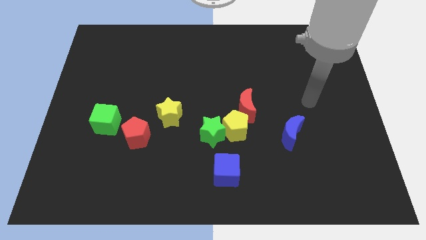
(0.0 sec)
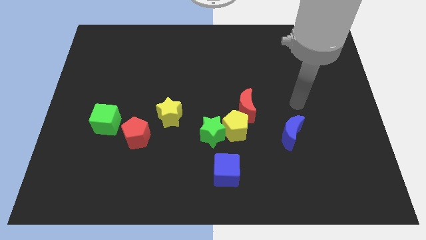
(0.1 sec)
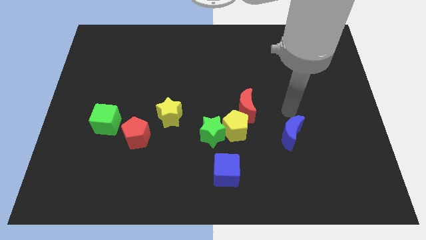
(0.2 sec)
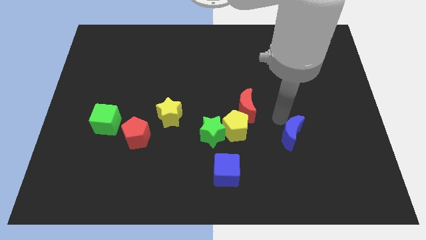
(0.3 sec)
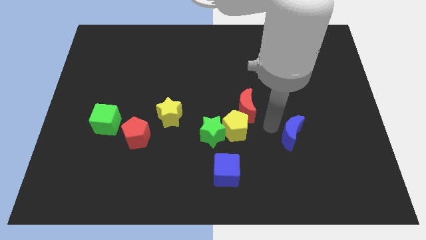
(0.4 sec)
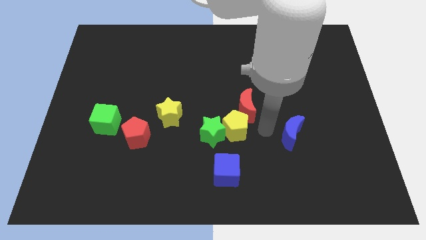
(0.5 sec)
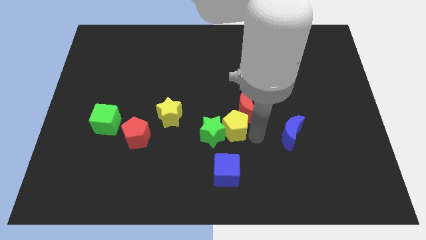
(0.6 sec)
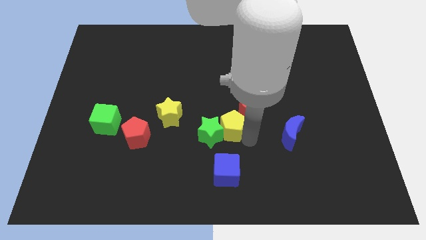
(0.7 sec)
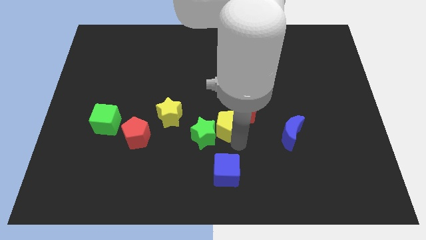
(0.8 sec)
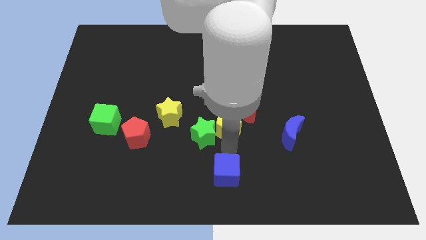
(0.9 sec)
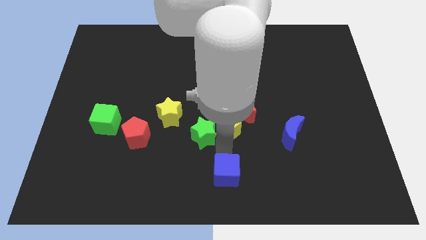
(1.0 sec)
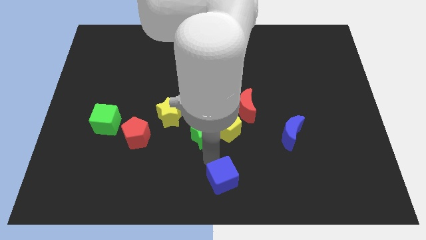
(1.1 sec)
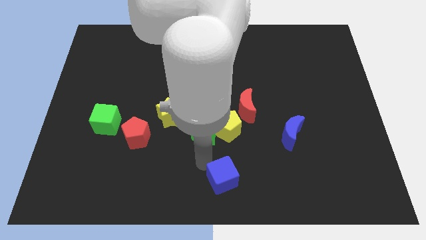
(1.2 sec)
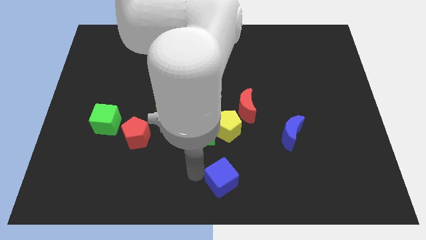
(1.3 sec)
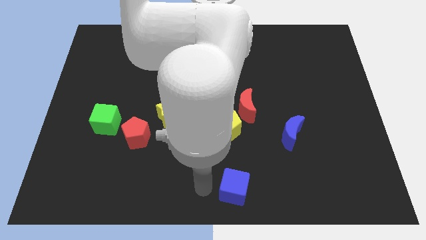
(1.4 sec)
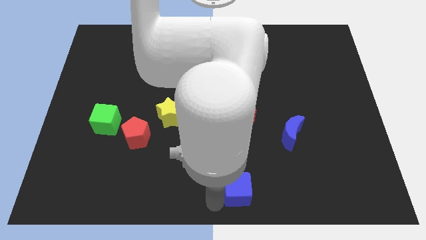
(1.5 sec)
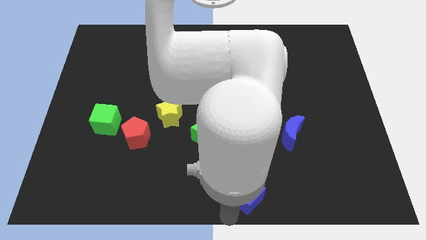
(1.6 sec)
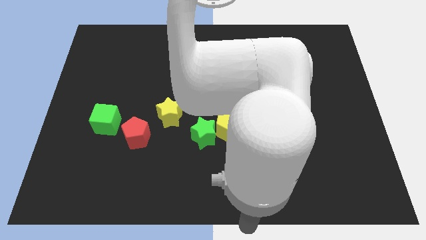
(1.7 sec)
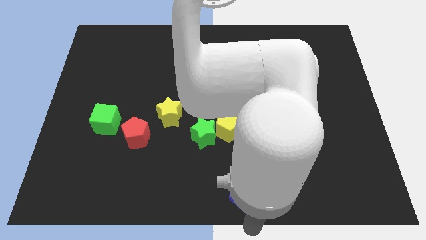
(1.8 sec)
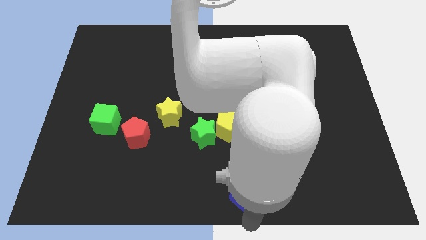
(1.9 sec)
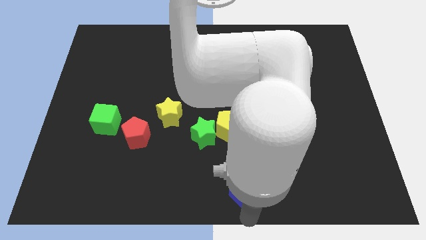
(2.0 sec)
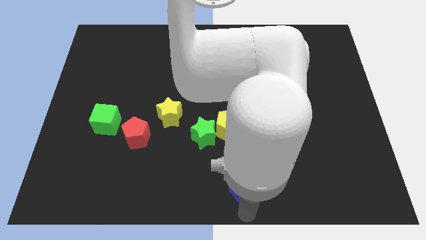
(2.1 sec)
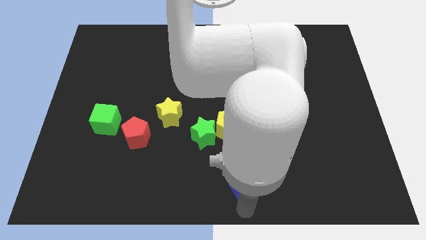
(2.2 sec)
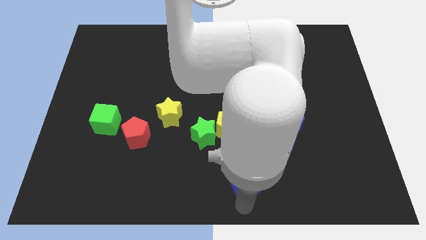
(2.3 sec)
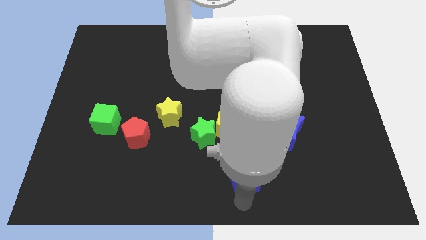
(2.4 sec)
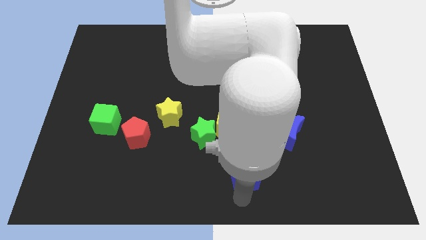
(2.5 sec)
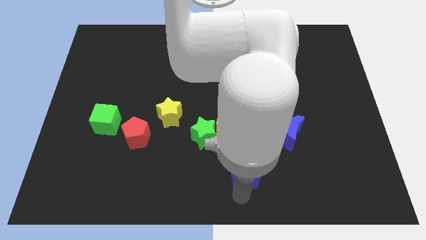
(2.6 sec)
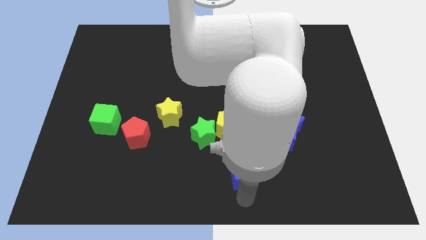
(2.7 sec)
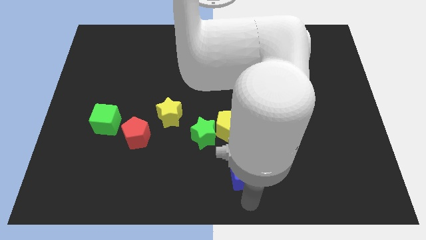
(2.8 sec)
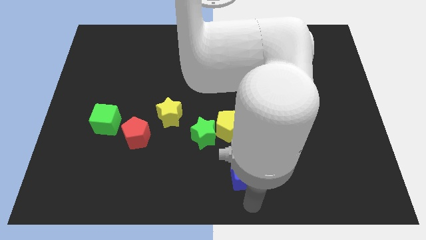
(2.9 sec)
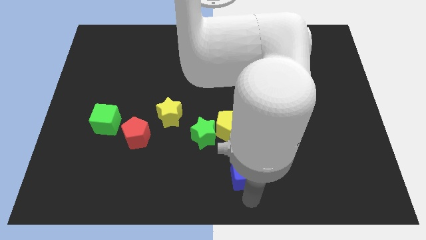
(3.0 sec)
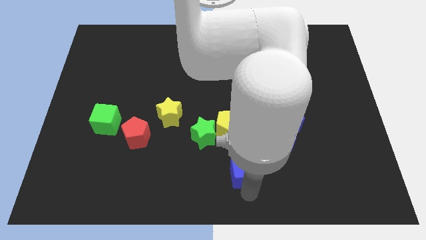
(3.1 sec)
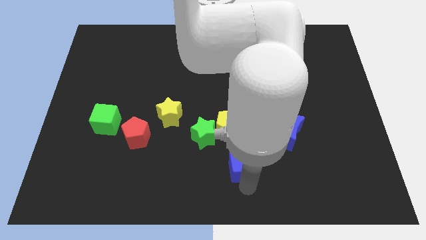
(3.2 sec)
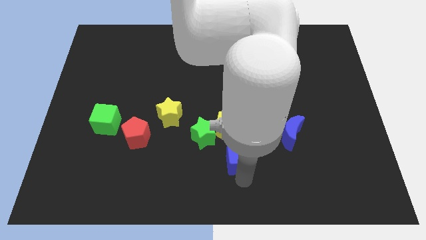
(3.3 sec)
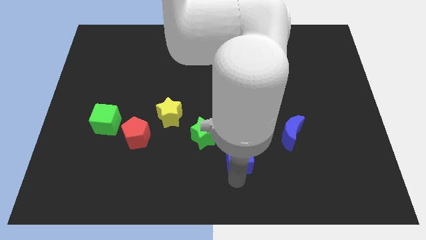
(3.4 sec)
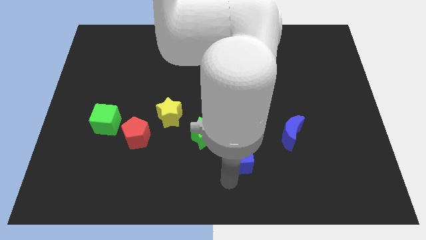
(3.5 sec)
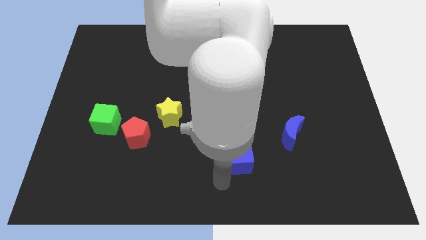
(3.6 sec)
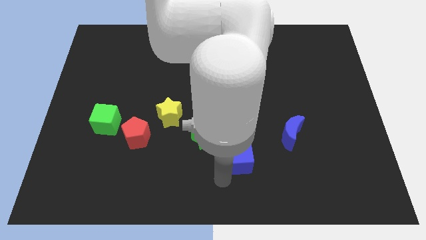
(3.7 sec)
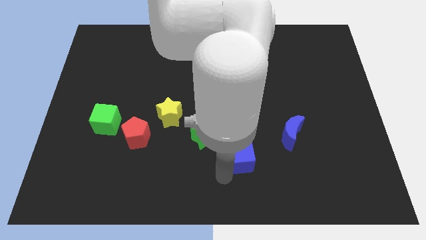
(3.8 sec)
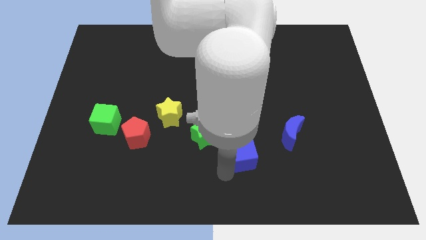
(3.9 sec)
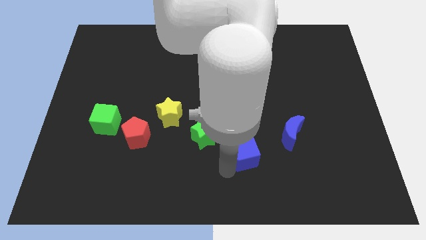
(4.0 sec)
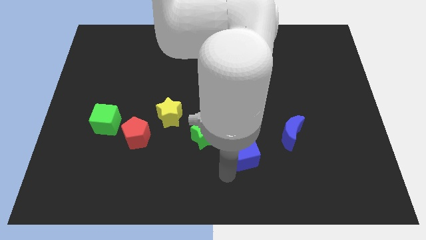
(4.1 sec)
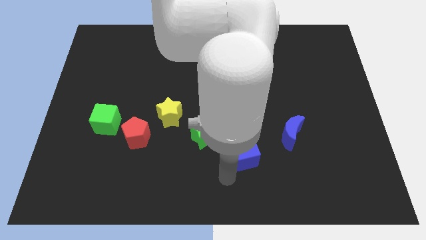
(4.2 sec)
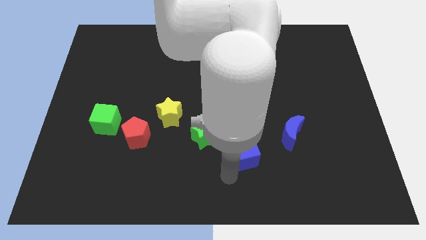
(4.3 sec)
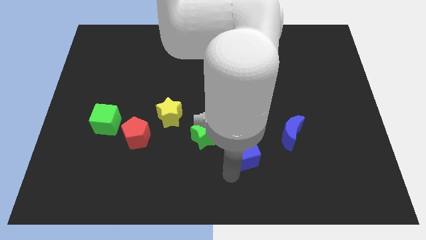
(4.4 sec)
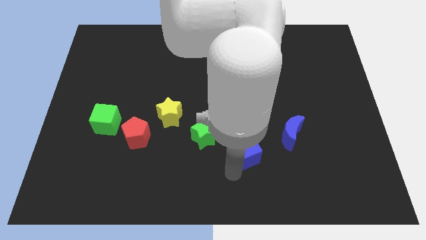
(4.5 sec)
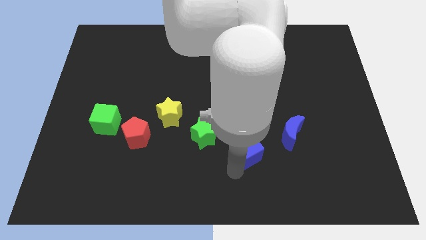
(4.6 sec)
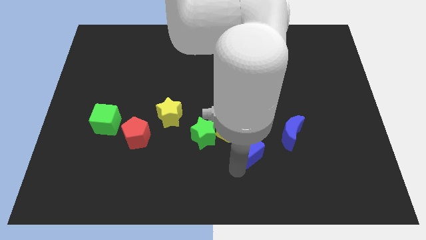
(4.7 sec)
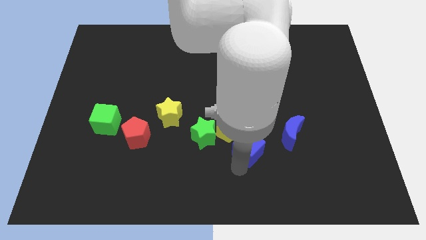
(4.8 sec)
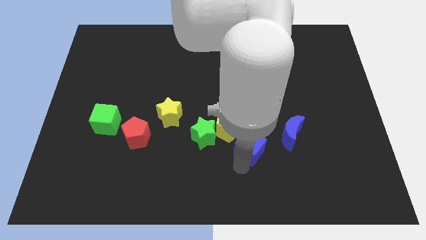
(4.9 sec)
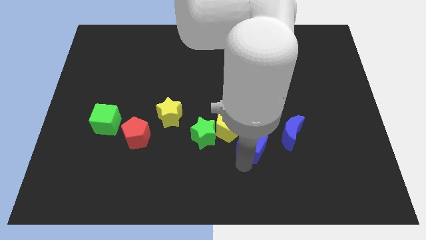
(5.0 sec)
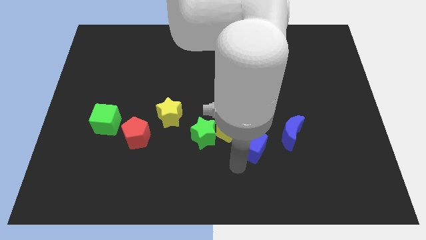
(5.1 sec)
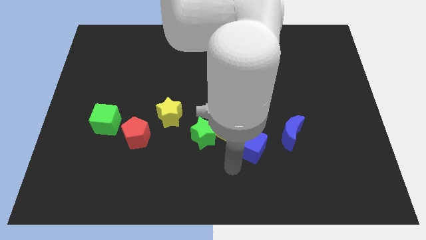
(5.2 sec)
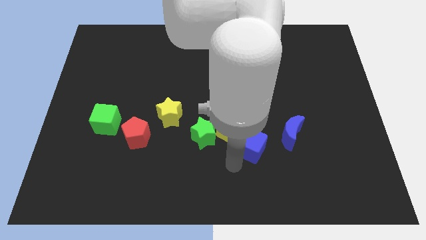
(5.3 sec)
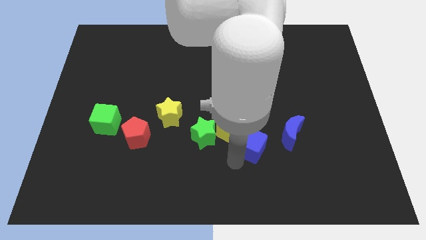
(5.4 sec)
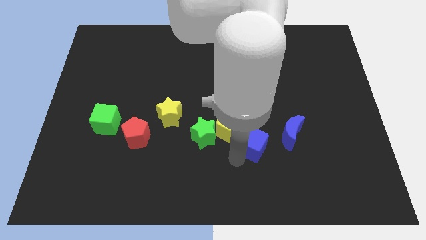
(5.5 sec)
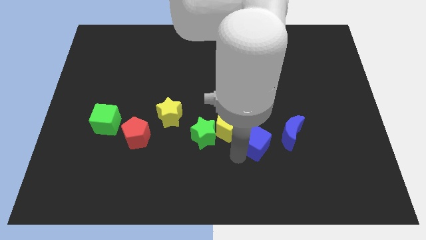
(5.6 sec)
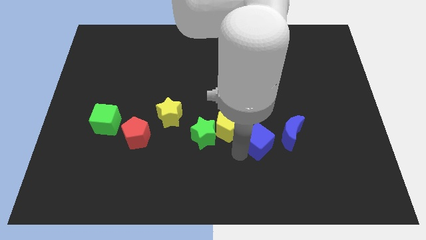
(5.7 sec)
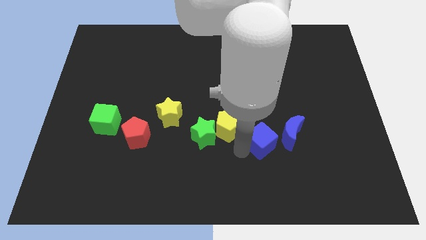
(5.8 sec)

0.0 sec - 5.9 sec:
put the blue cube to the bottom right of the red moon

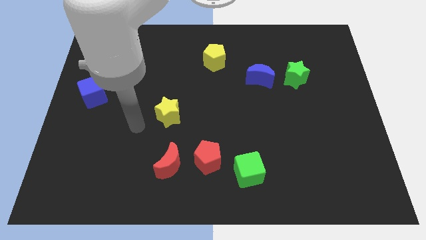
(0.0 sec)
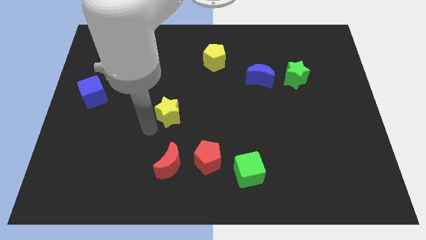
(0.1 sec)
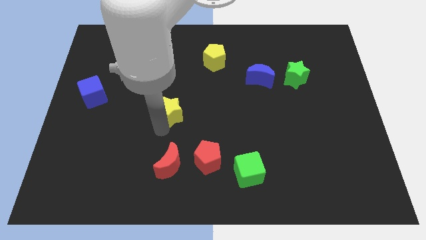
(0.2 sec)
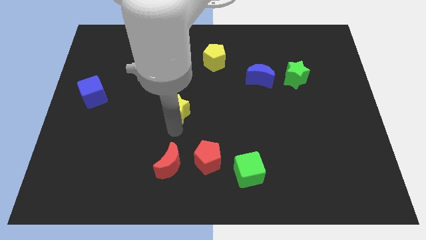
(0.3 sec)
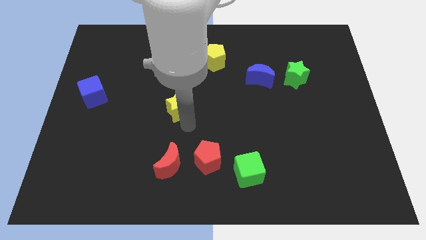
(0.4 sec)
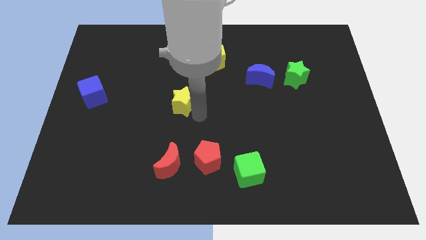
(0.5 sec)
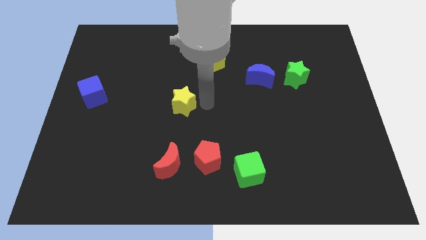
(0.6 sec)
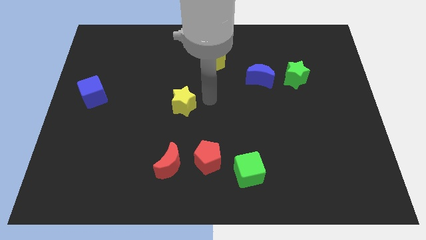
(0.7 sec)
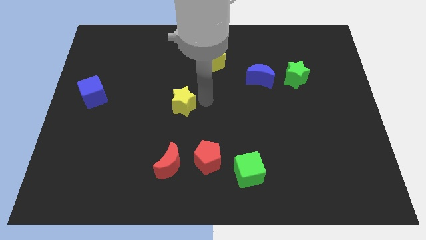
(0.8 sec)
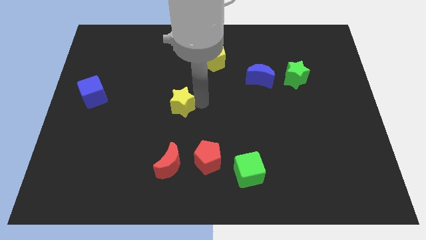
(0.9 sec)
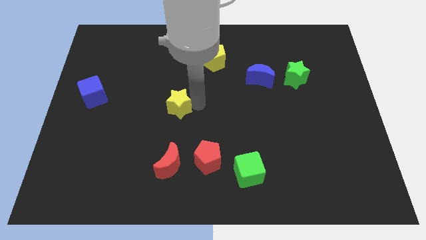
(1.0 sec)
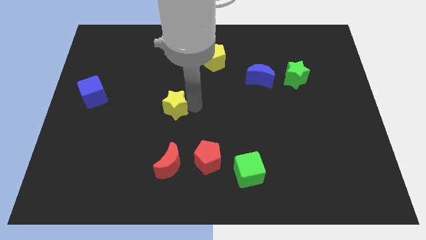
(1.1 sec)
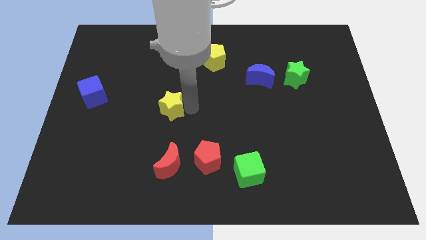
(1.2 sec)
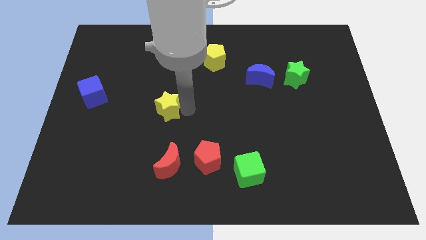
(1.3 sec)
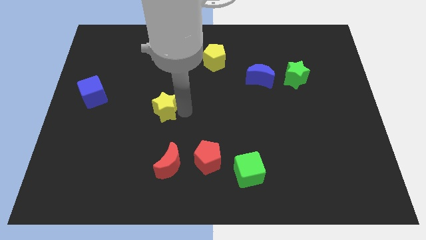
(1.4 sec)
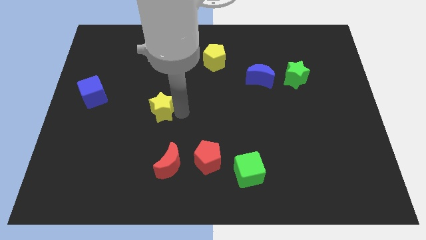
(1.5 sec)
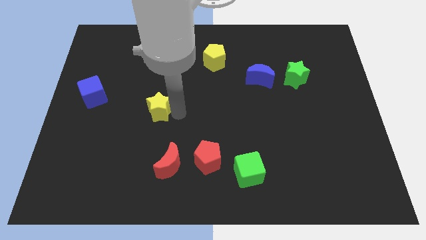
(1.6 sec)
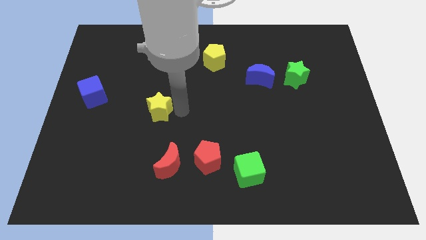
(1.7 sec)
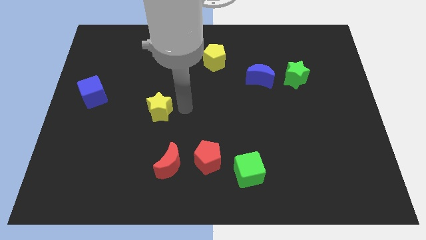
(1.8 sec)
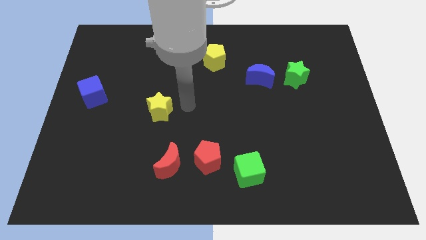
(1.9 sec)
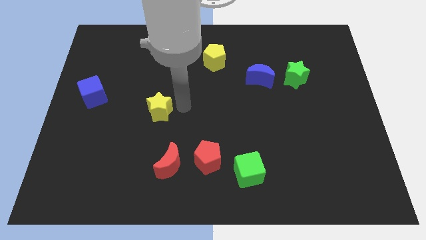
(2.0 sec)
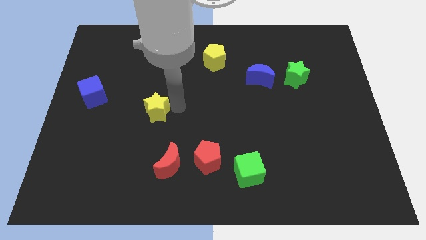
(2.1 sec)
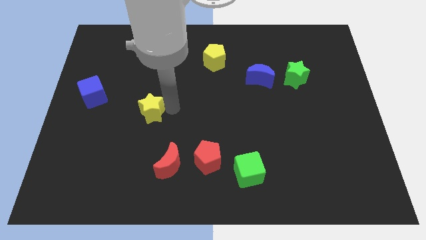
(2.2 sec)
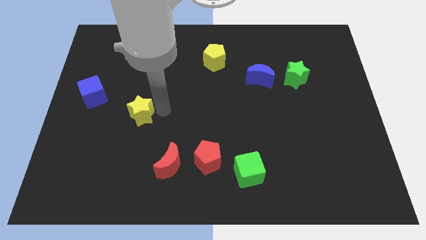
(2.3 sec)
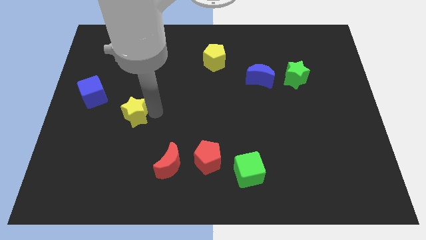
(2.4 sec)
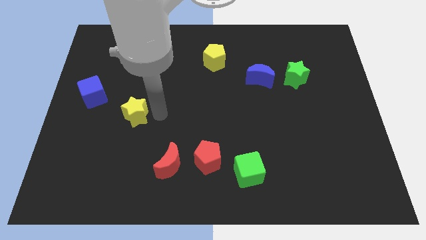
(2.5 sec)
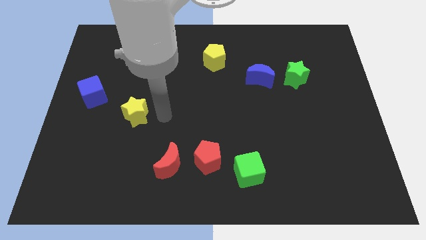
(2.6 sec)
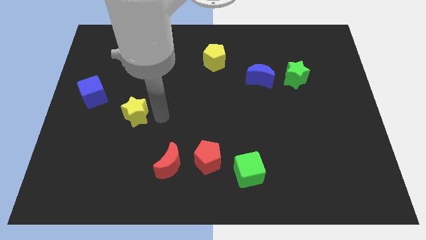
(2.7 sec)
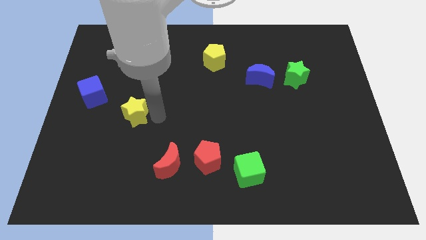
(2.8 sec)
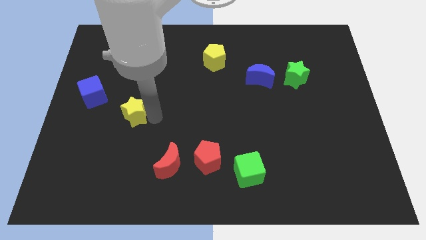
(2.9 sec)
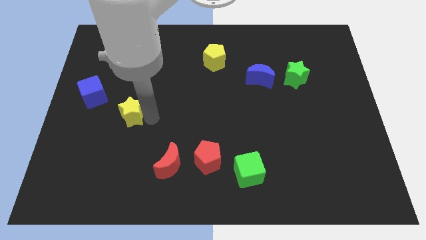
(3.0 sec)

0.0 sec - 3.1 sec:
slide the yellow star to the bottom right of the blue cube
